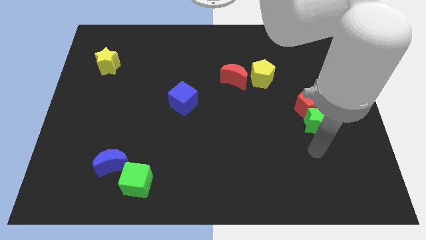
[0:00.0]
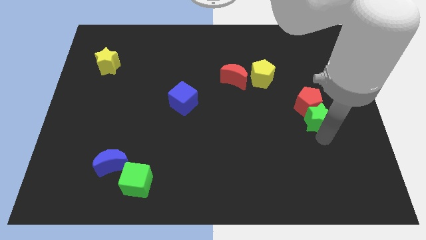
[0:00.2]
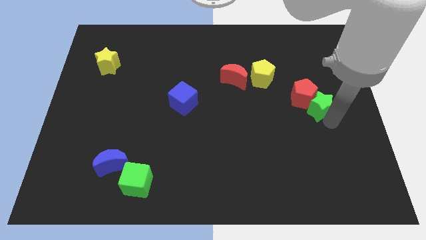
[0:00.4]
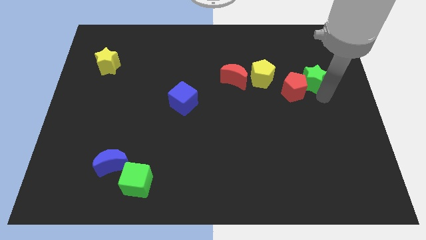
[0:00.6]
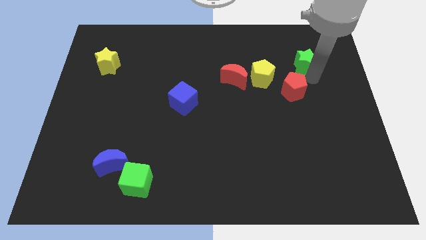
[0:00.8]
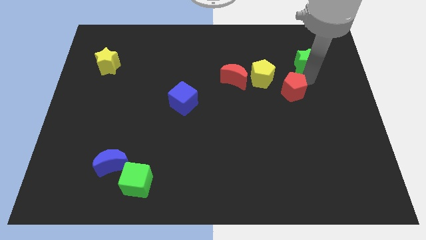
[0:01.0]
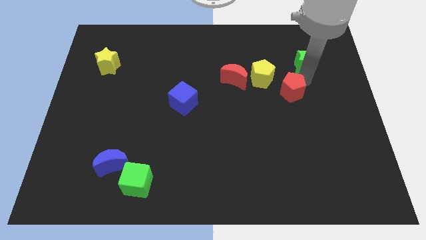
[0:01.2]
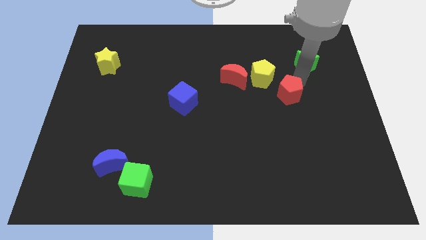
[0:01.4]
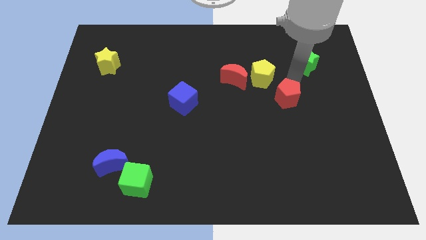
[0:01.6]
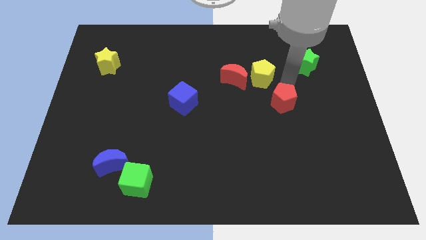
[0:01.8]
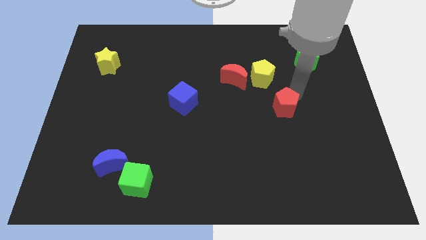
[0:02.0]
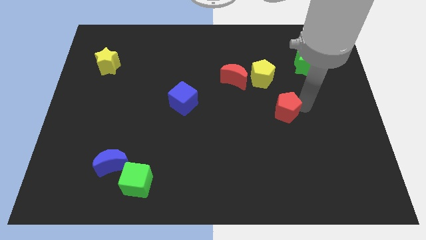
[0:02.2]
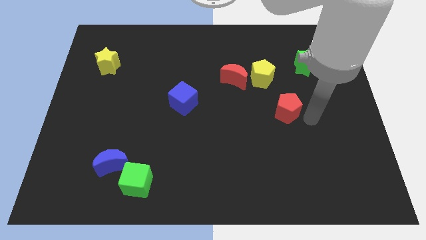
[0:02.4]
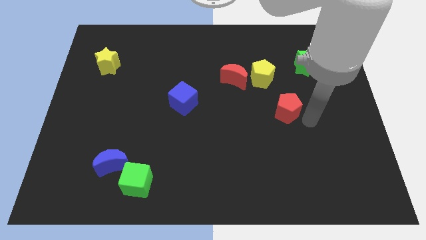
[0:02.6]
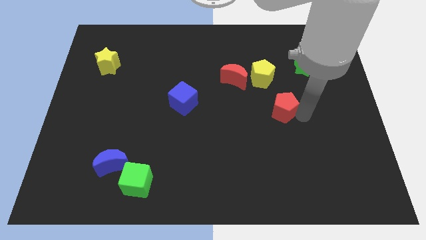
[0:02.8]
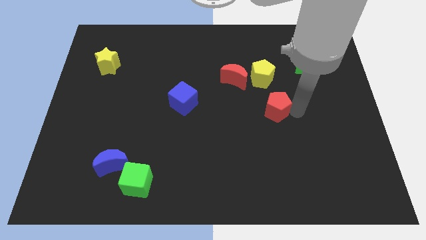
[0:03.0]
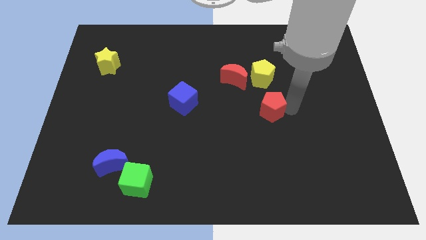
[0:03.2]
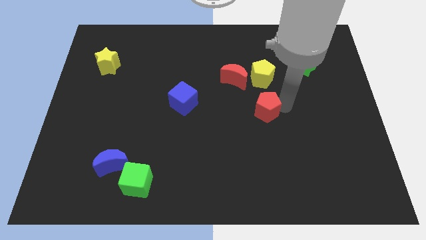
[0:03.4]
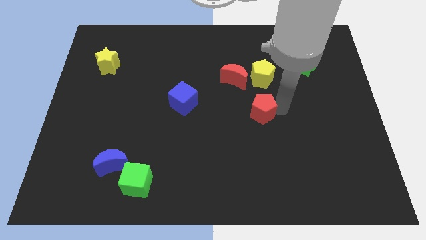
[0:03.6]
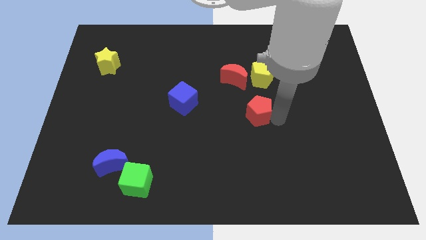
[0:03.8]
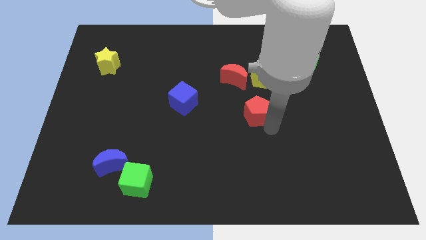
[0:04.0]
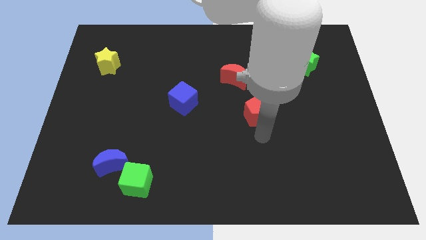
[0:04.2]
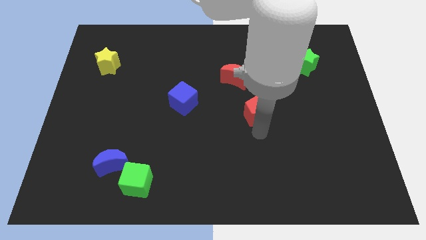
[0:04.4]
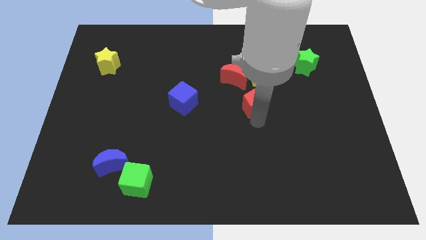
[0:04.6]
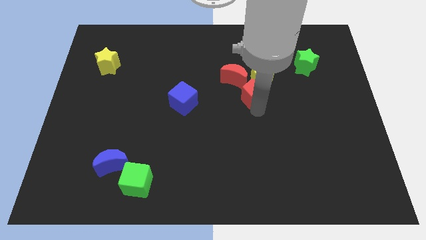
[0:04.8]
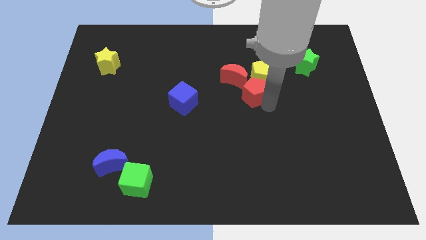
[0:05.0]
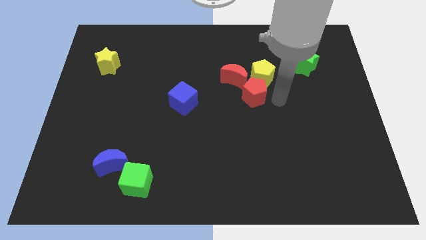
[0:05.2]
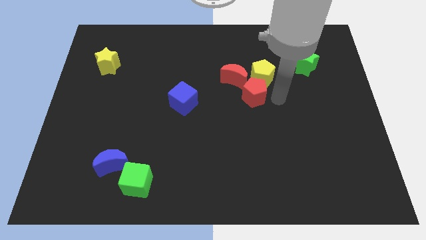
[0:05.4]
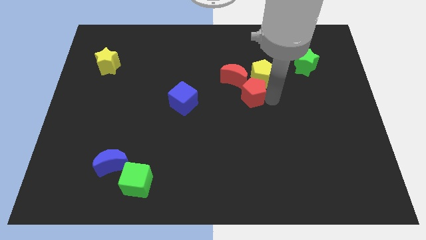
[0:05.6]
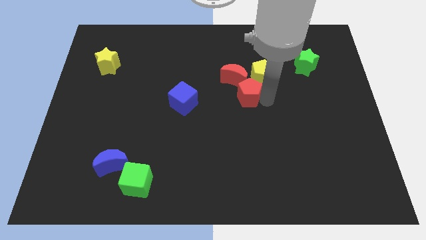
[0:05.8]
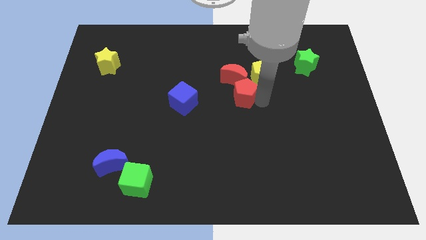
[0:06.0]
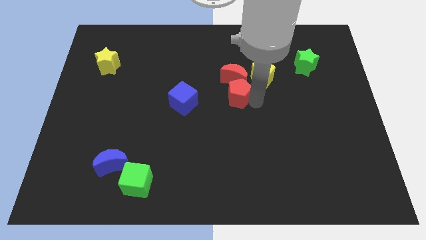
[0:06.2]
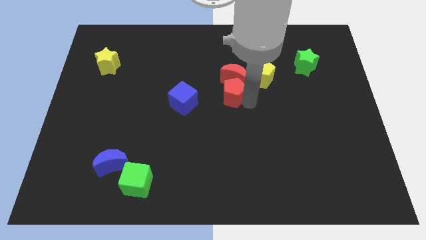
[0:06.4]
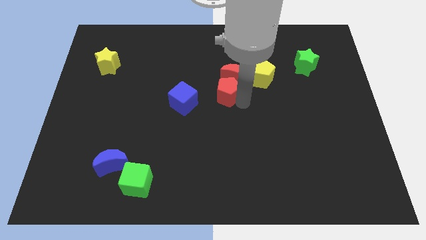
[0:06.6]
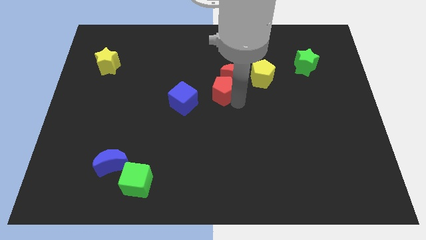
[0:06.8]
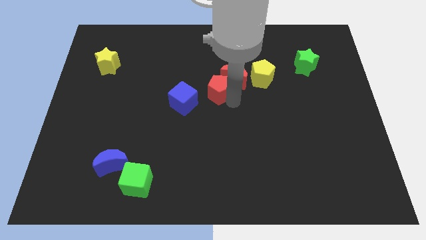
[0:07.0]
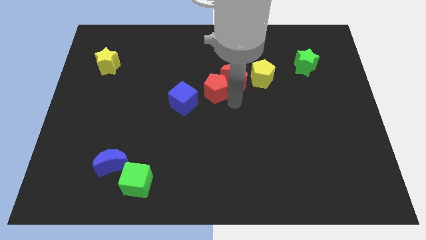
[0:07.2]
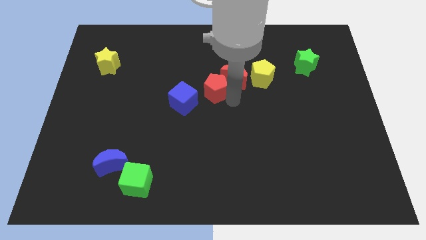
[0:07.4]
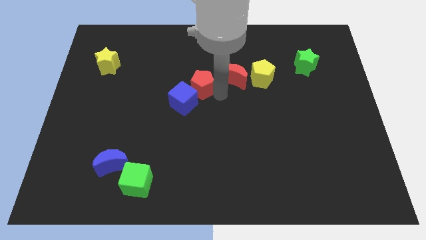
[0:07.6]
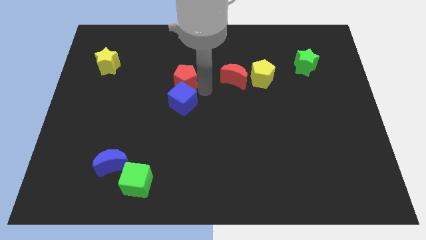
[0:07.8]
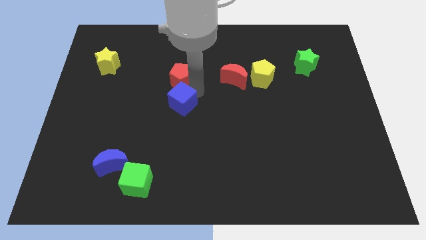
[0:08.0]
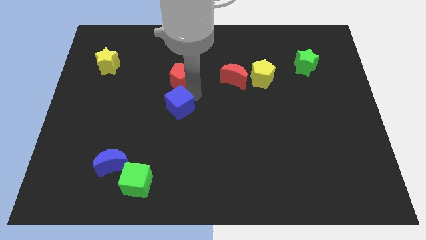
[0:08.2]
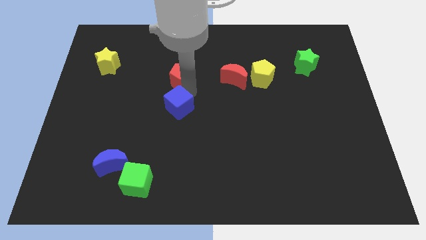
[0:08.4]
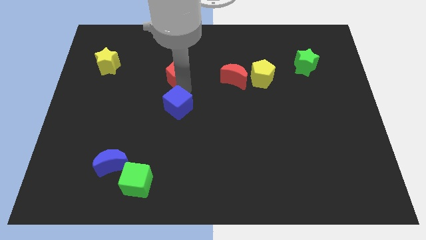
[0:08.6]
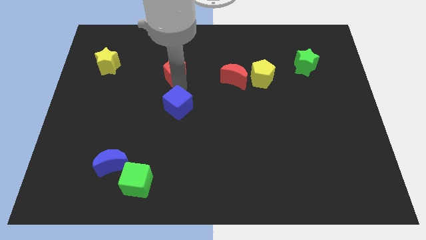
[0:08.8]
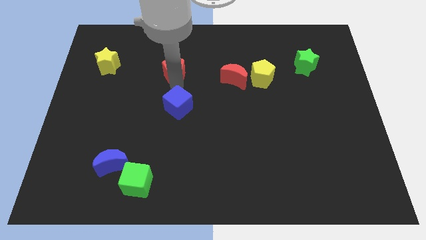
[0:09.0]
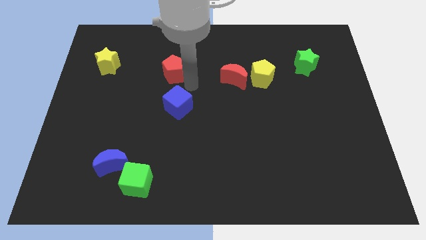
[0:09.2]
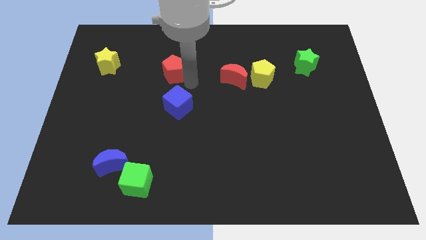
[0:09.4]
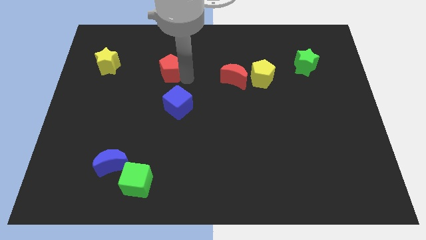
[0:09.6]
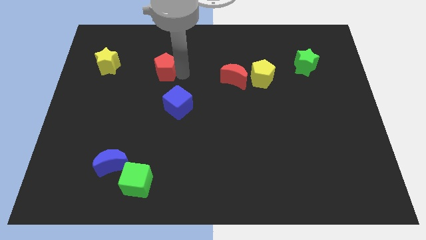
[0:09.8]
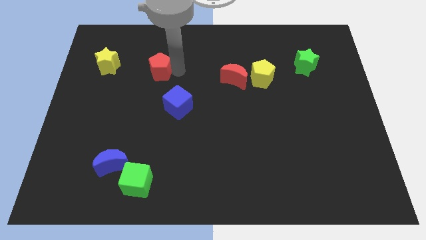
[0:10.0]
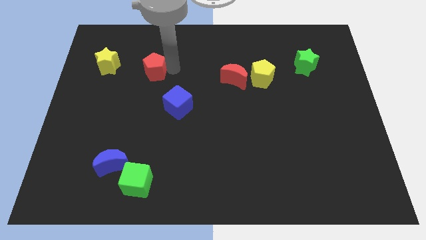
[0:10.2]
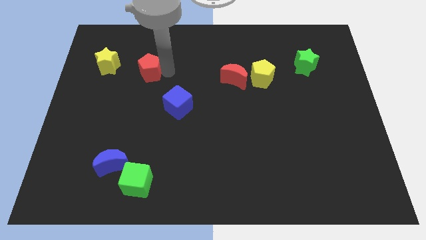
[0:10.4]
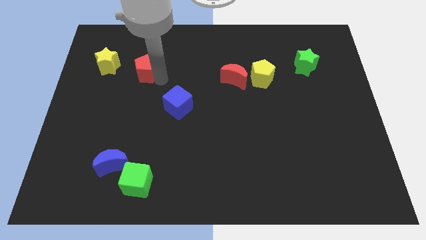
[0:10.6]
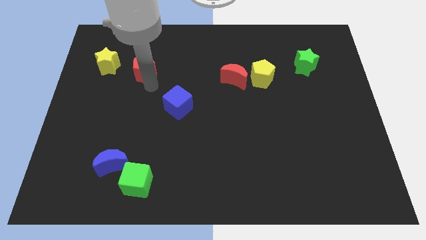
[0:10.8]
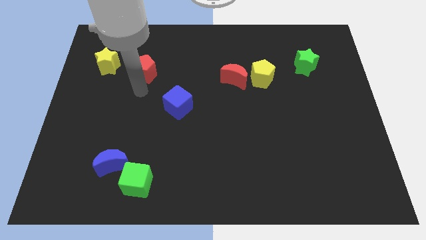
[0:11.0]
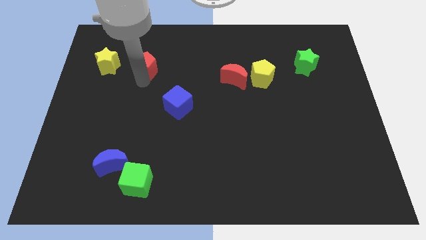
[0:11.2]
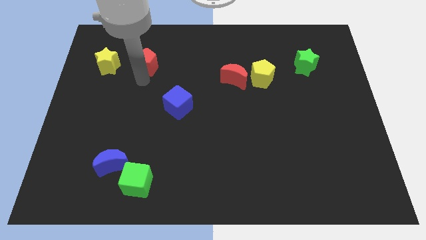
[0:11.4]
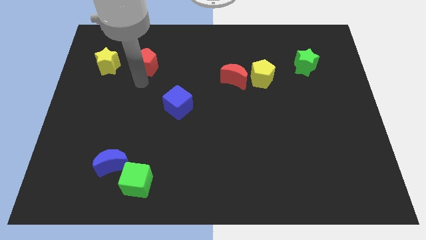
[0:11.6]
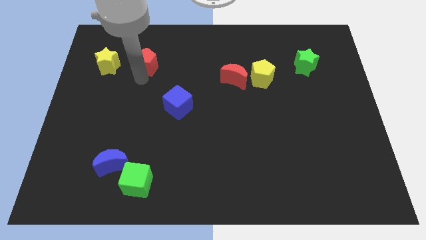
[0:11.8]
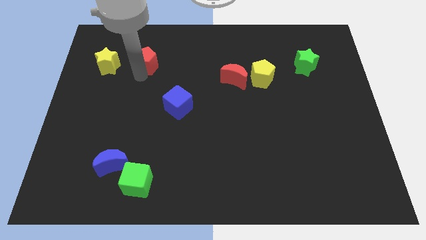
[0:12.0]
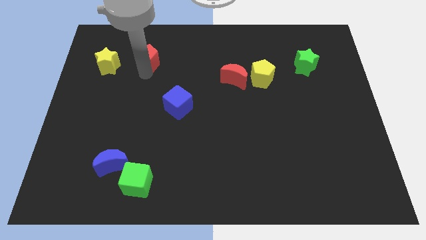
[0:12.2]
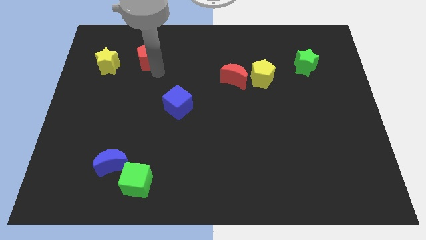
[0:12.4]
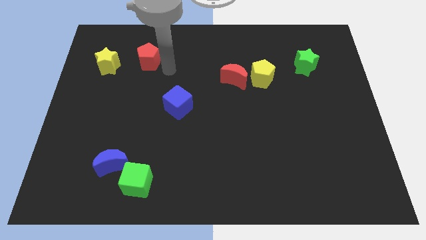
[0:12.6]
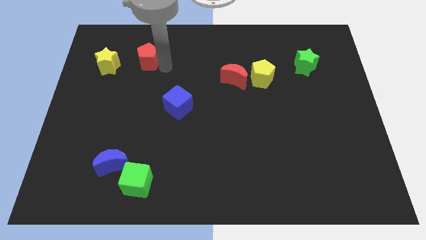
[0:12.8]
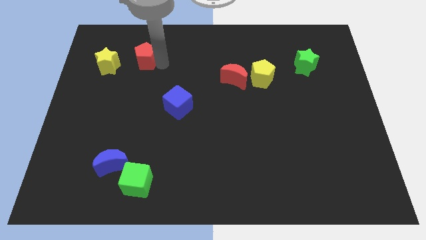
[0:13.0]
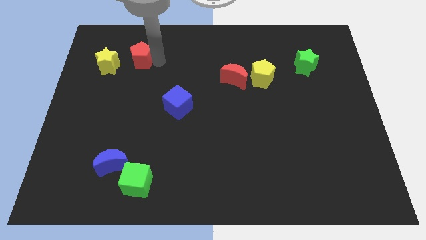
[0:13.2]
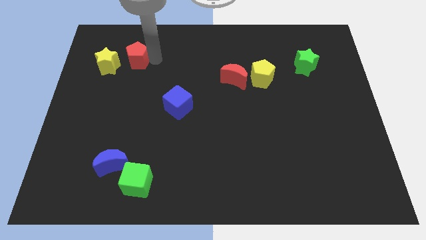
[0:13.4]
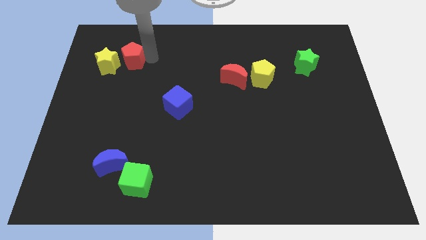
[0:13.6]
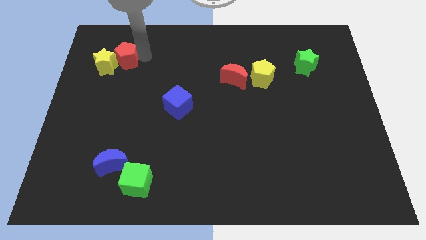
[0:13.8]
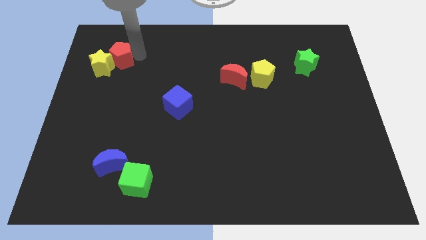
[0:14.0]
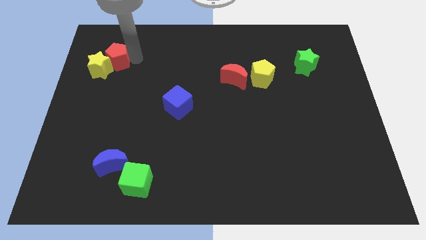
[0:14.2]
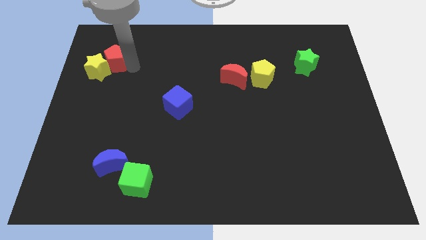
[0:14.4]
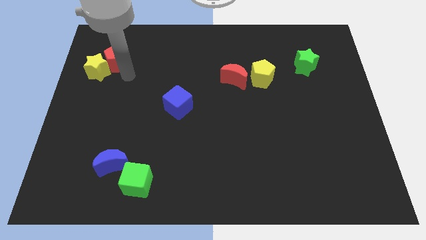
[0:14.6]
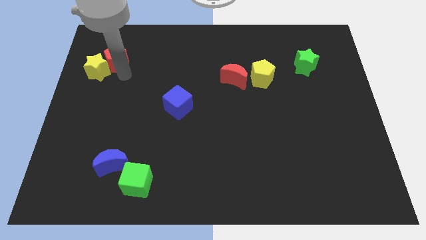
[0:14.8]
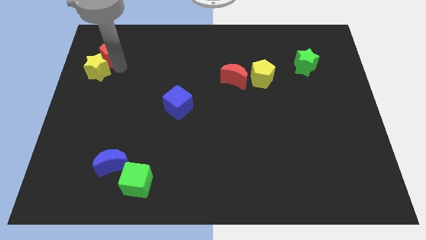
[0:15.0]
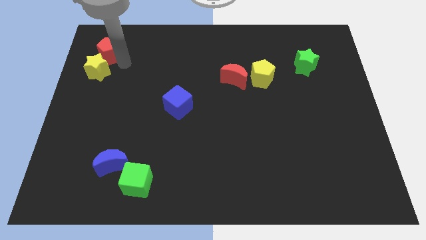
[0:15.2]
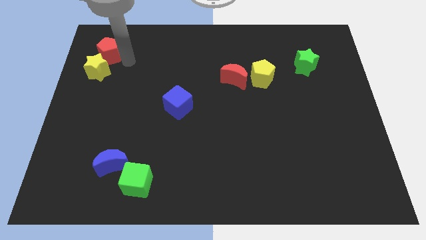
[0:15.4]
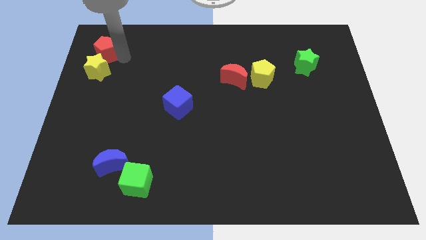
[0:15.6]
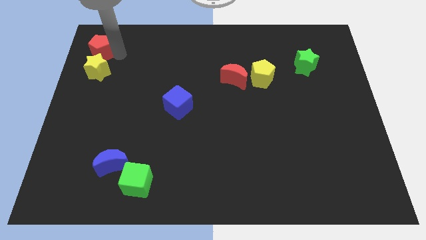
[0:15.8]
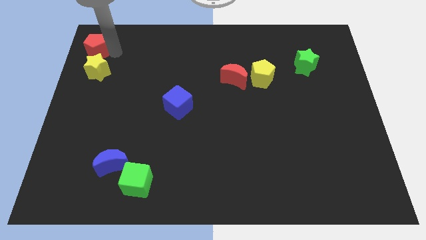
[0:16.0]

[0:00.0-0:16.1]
put the red pentagon to the top left corner
